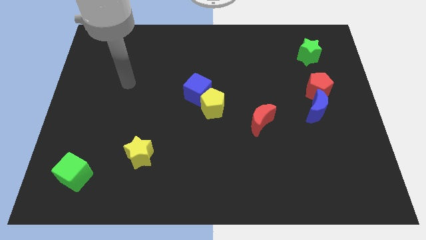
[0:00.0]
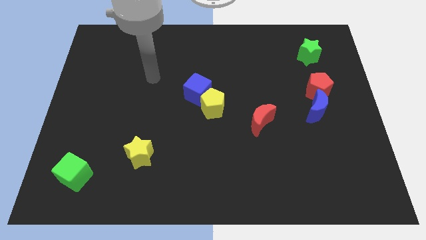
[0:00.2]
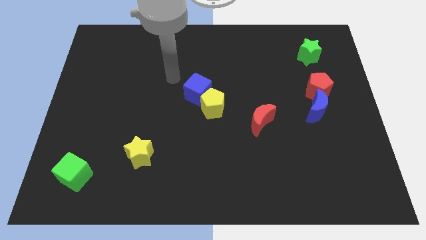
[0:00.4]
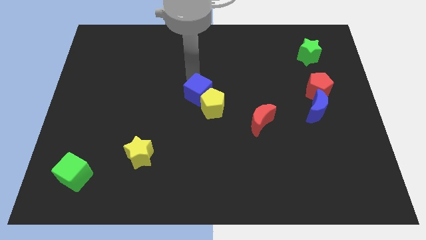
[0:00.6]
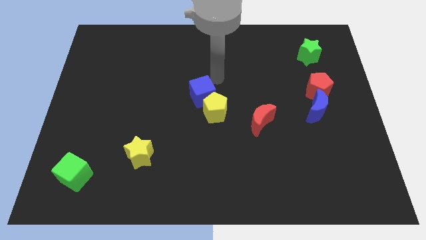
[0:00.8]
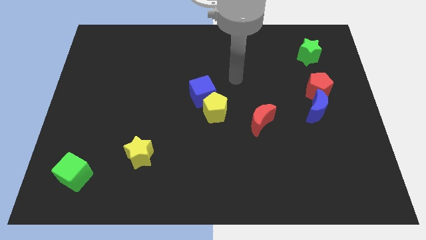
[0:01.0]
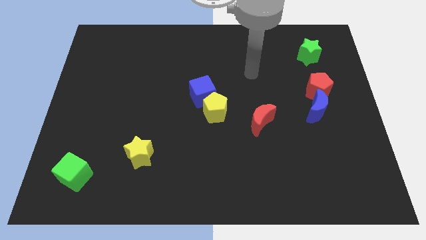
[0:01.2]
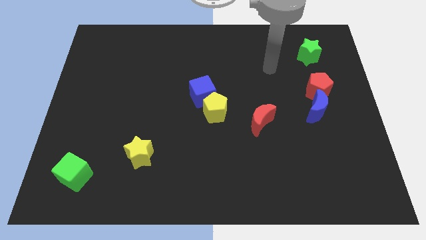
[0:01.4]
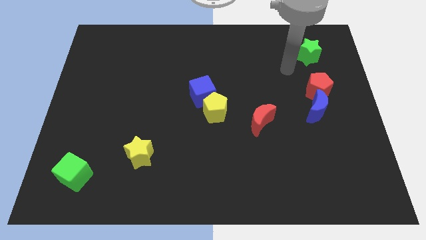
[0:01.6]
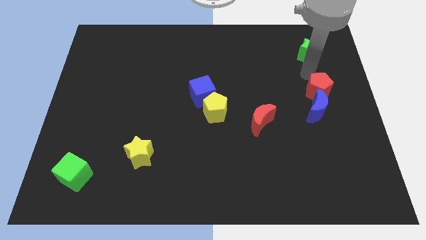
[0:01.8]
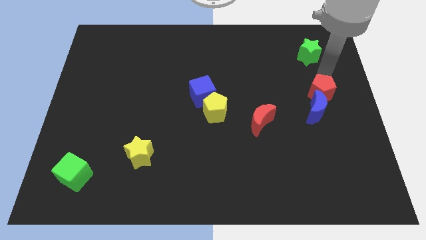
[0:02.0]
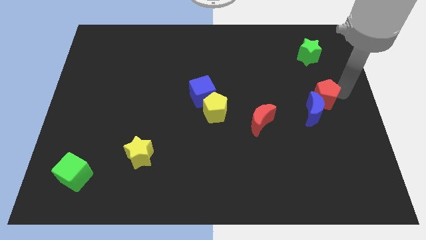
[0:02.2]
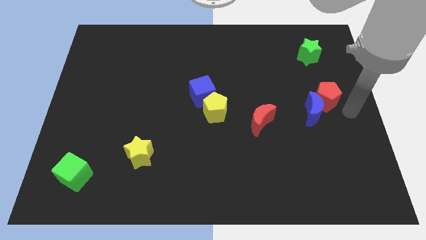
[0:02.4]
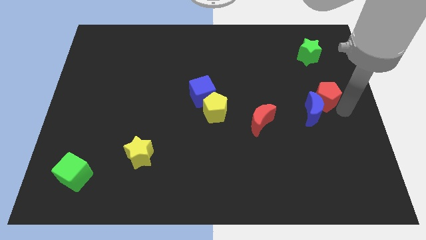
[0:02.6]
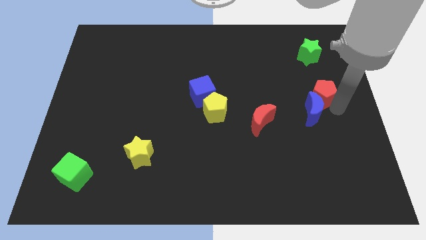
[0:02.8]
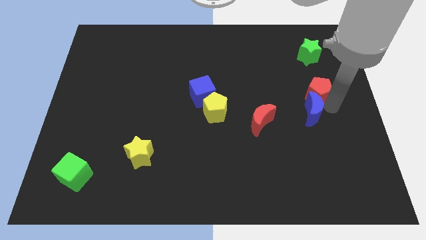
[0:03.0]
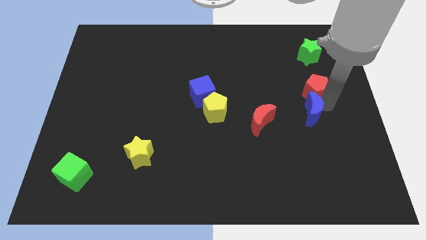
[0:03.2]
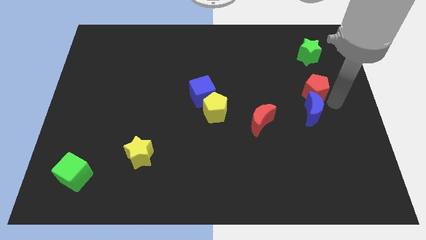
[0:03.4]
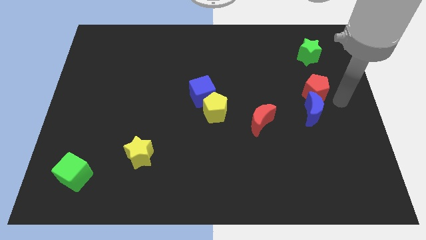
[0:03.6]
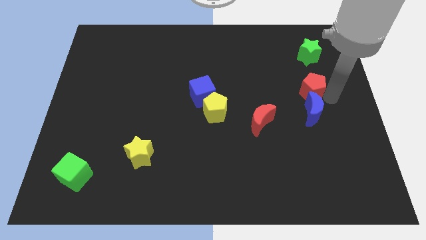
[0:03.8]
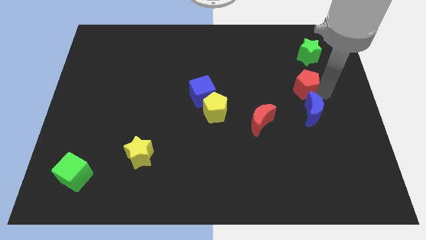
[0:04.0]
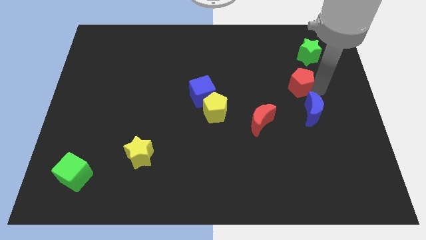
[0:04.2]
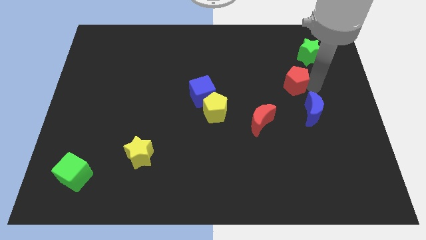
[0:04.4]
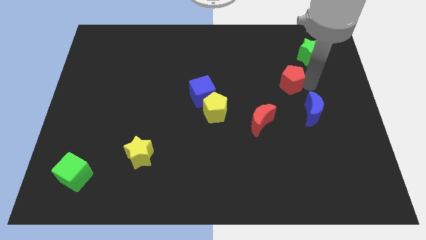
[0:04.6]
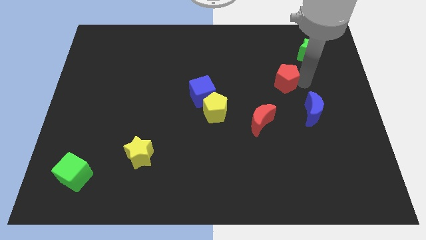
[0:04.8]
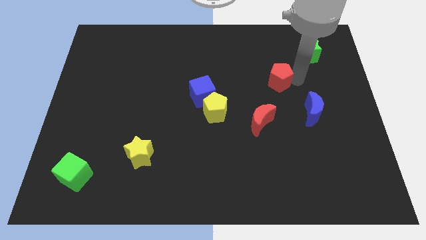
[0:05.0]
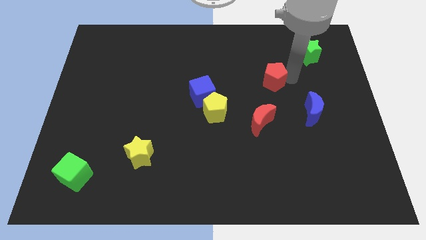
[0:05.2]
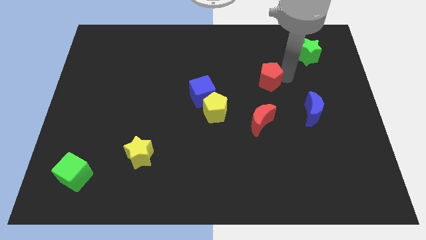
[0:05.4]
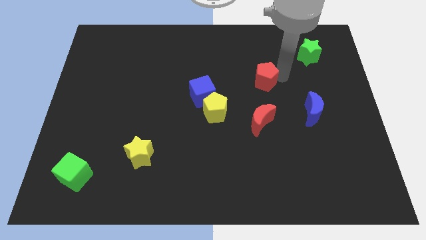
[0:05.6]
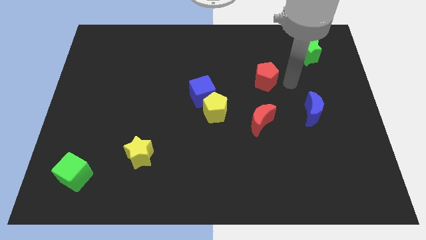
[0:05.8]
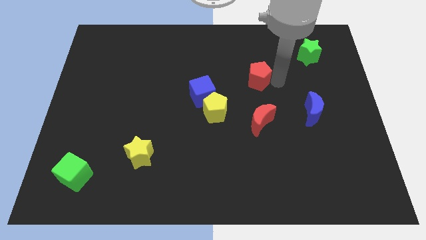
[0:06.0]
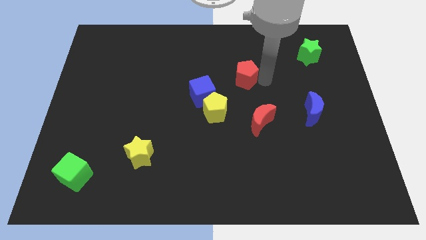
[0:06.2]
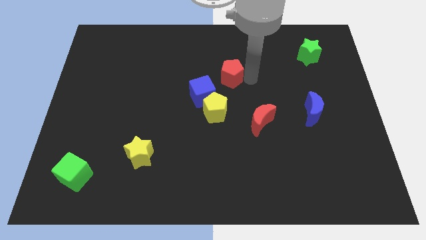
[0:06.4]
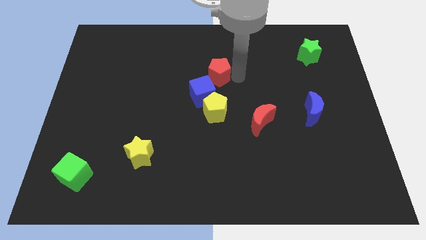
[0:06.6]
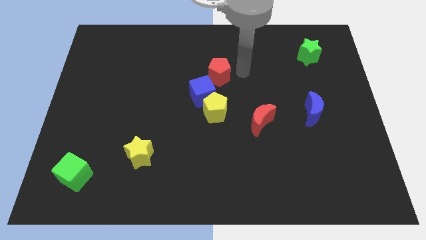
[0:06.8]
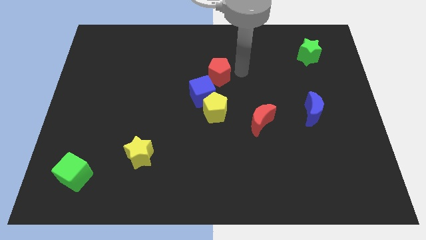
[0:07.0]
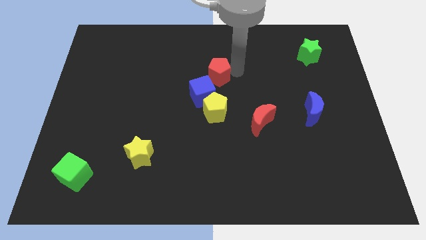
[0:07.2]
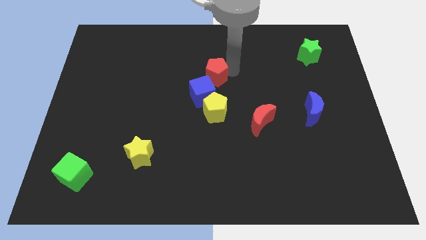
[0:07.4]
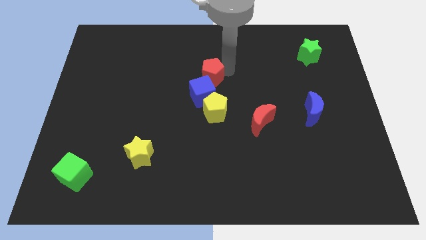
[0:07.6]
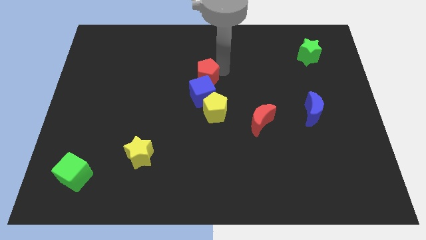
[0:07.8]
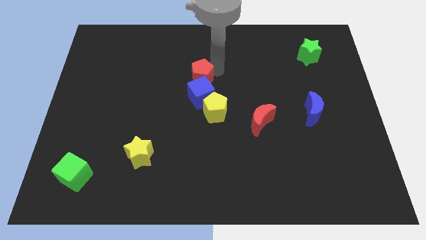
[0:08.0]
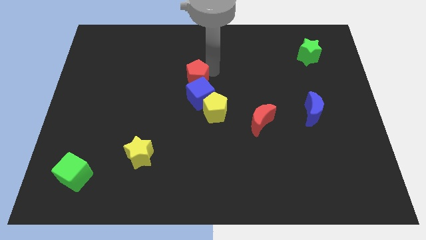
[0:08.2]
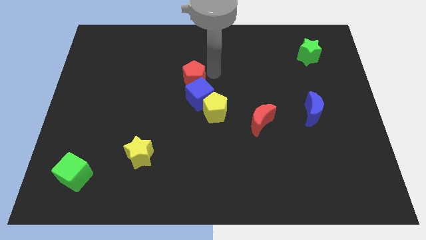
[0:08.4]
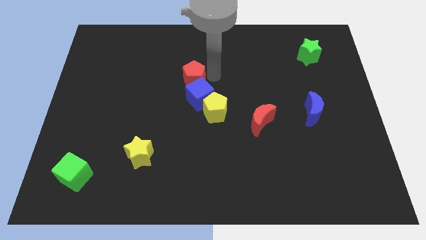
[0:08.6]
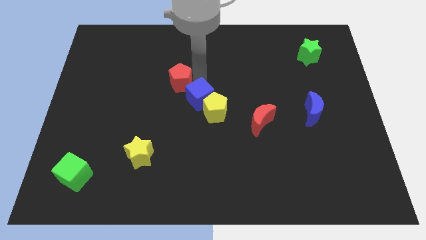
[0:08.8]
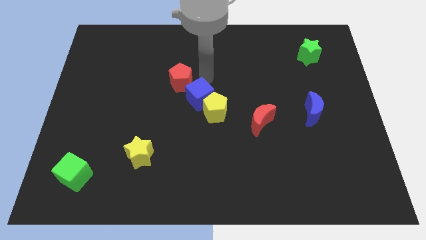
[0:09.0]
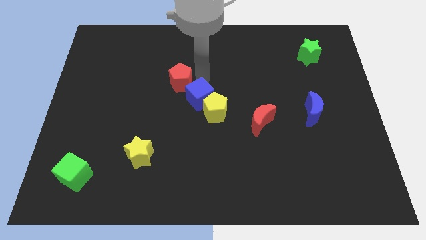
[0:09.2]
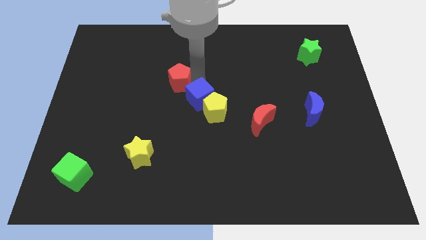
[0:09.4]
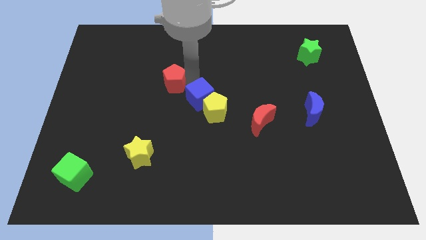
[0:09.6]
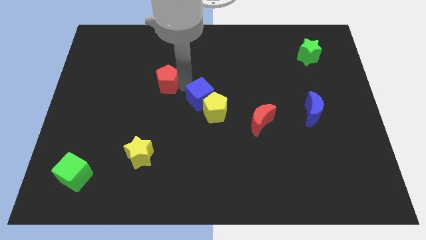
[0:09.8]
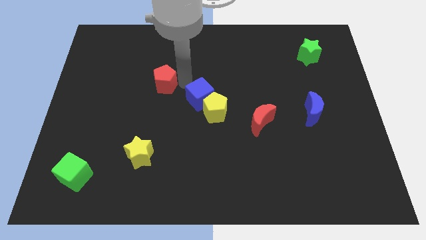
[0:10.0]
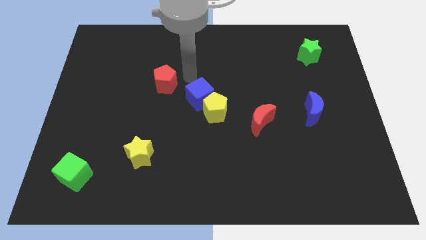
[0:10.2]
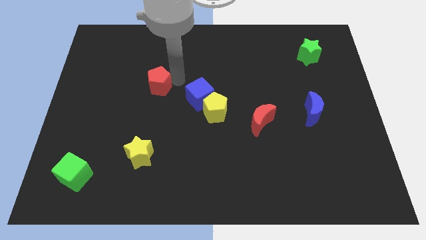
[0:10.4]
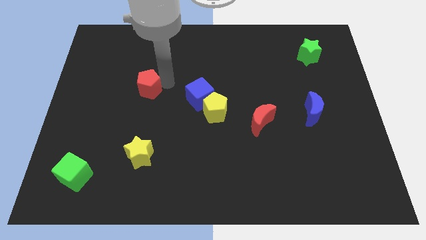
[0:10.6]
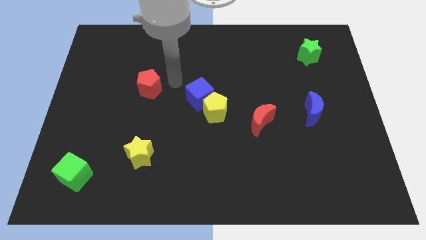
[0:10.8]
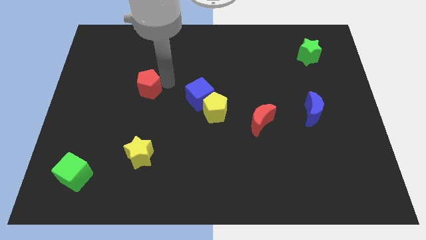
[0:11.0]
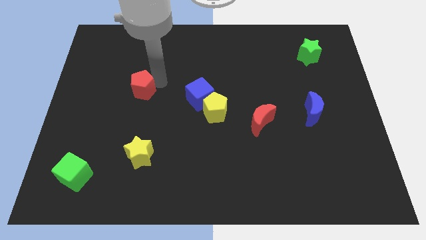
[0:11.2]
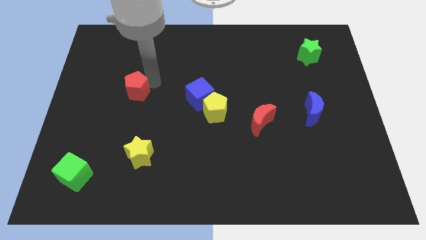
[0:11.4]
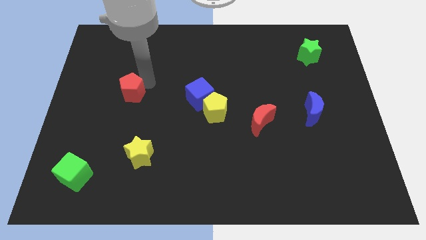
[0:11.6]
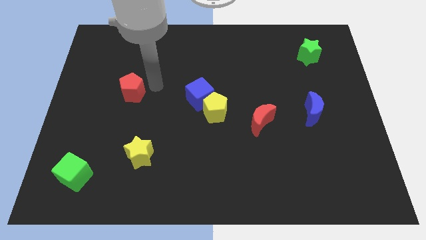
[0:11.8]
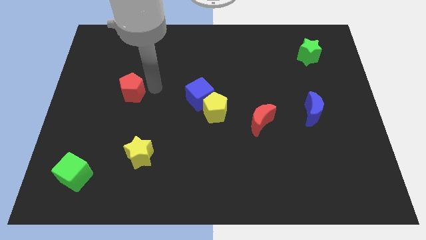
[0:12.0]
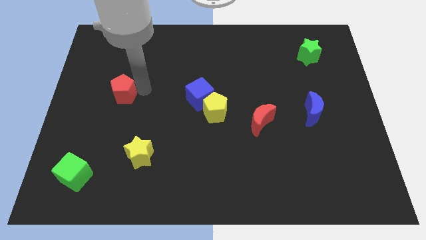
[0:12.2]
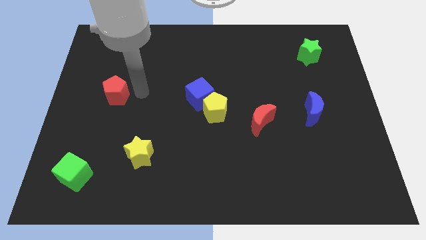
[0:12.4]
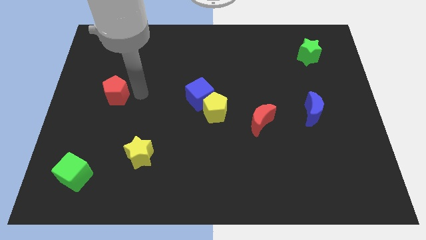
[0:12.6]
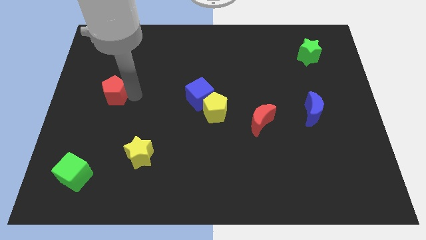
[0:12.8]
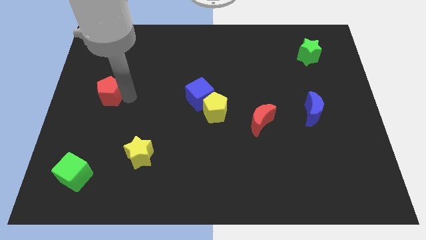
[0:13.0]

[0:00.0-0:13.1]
move the red pentagon to the left side
